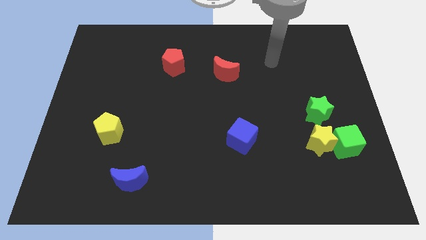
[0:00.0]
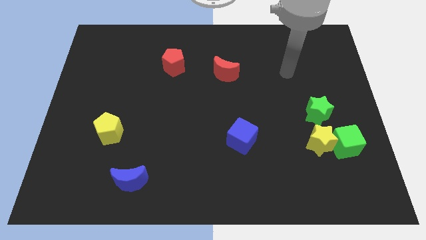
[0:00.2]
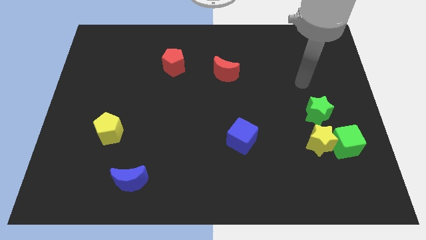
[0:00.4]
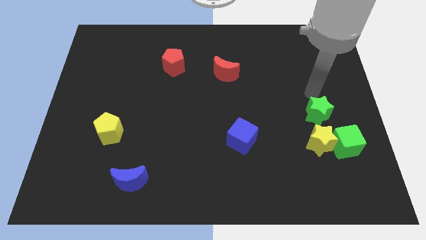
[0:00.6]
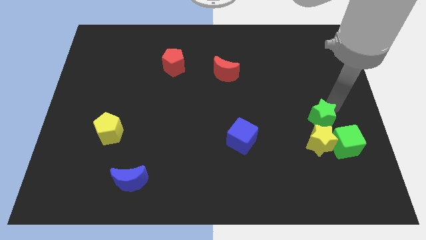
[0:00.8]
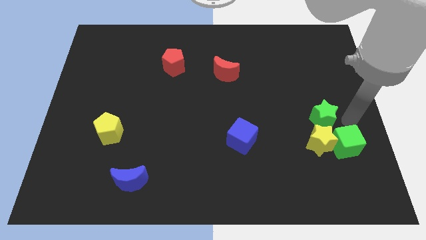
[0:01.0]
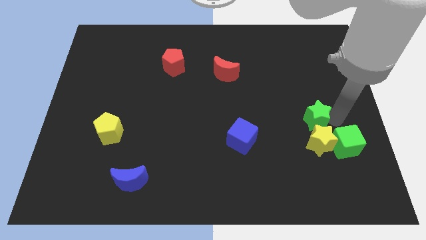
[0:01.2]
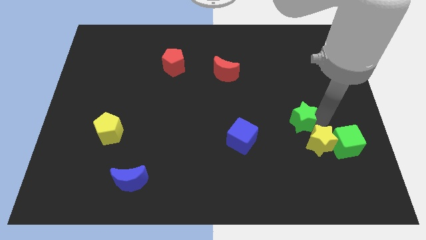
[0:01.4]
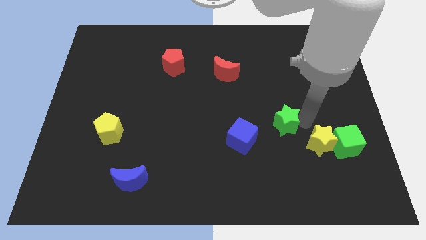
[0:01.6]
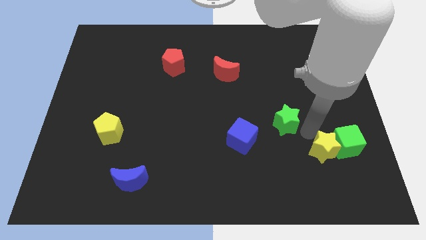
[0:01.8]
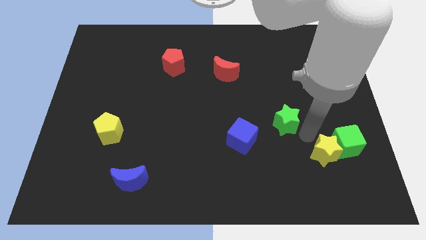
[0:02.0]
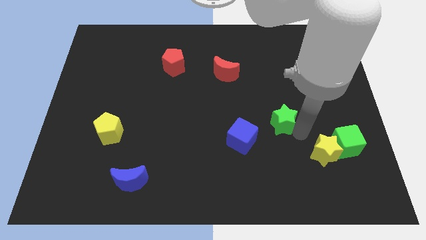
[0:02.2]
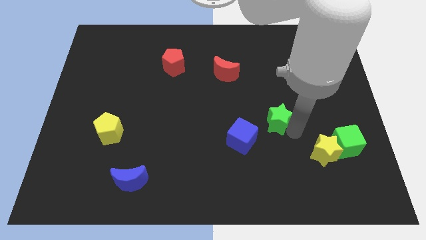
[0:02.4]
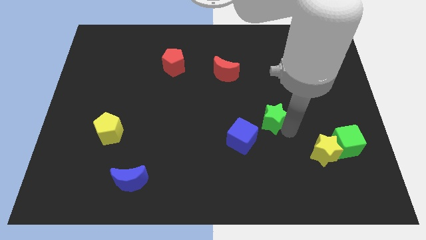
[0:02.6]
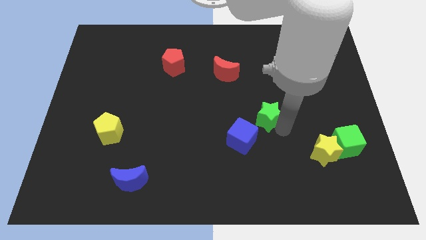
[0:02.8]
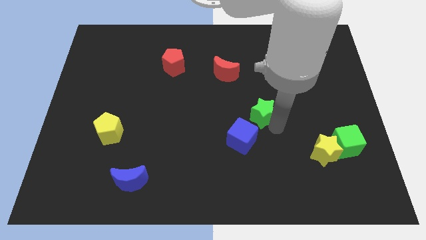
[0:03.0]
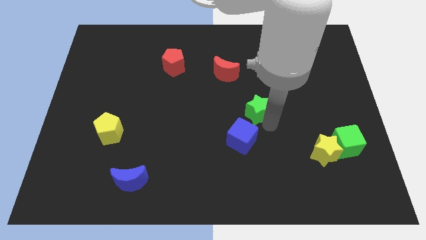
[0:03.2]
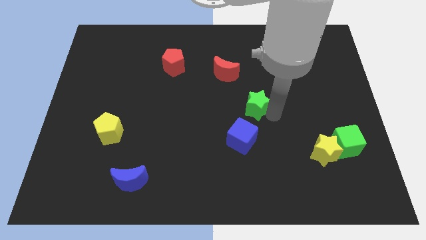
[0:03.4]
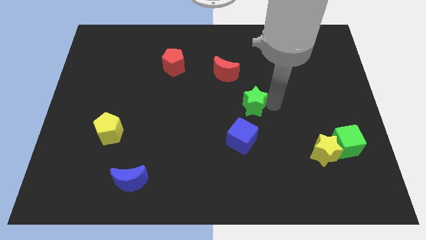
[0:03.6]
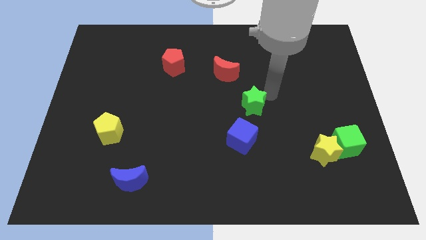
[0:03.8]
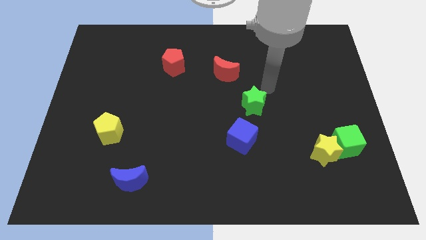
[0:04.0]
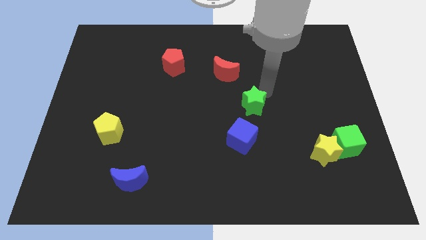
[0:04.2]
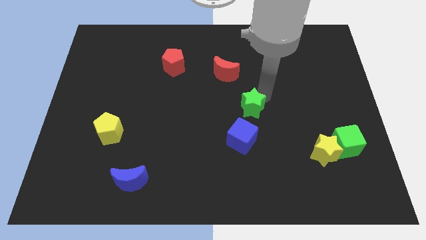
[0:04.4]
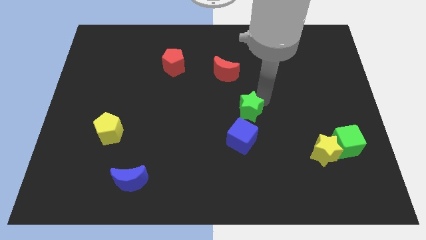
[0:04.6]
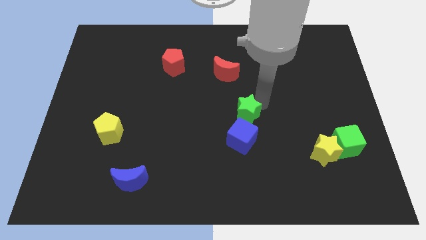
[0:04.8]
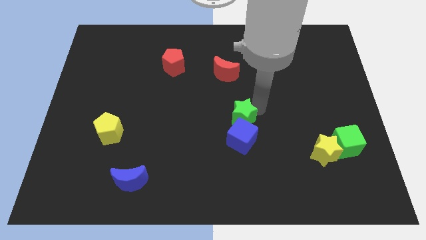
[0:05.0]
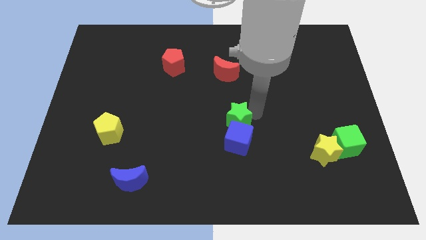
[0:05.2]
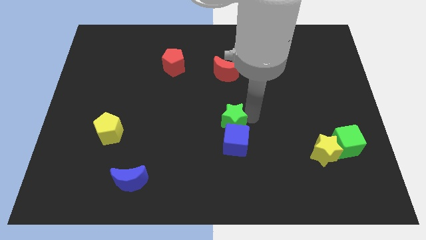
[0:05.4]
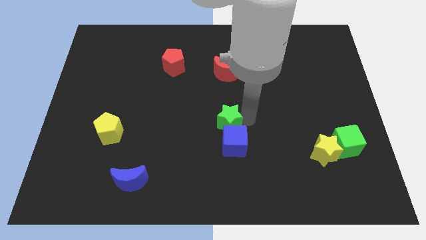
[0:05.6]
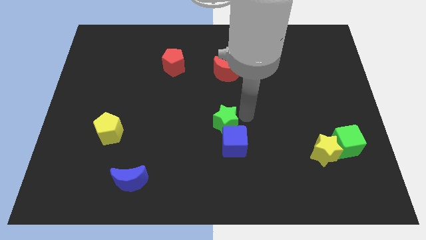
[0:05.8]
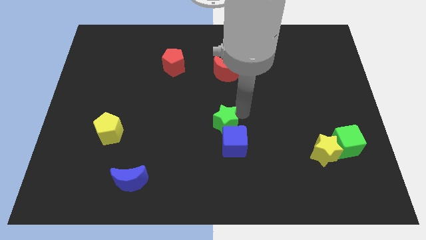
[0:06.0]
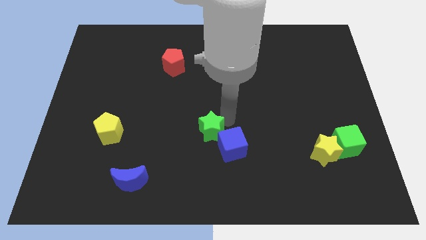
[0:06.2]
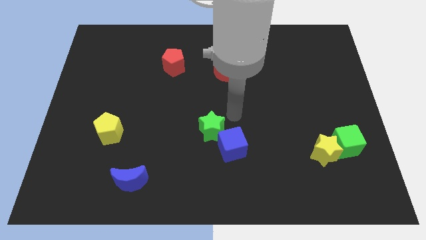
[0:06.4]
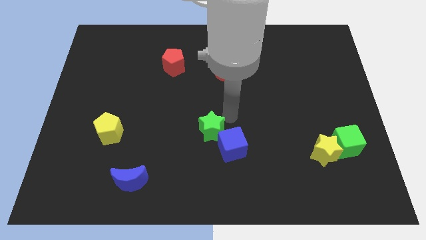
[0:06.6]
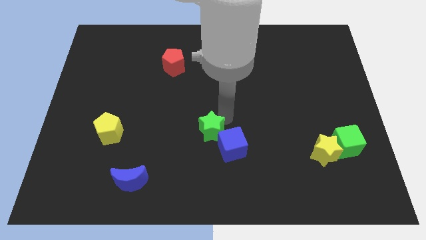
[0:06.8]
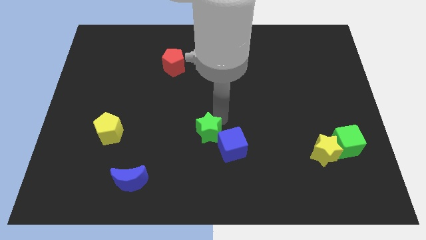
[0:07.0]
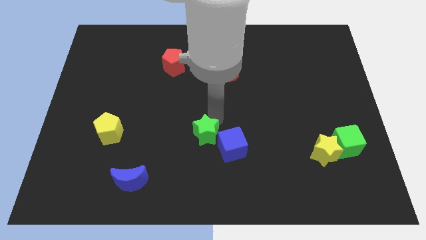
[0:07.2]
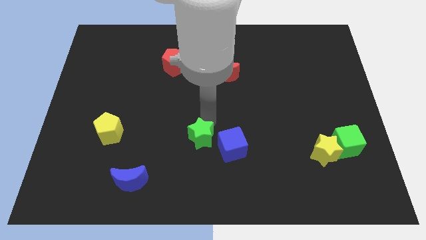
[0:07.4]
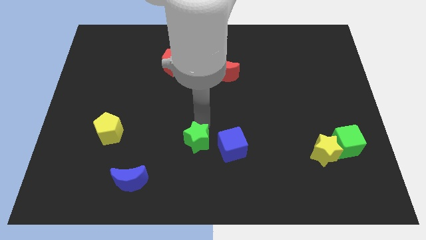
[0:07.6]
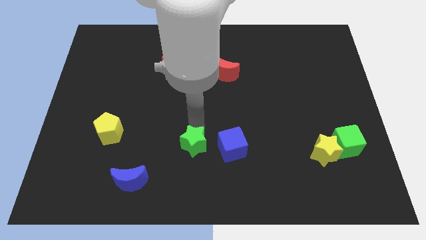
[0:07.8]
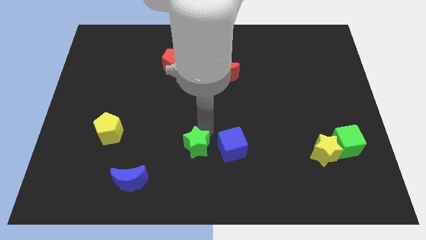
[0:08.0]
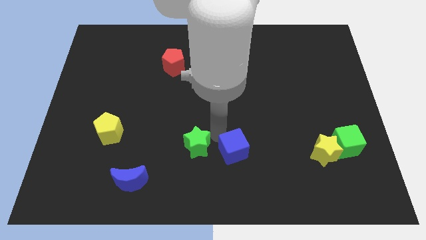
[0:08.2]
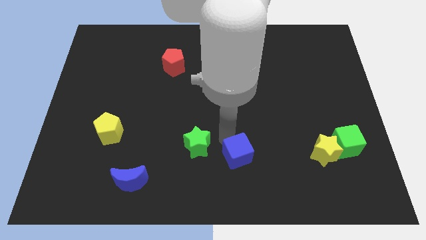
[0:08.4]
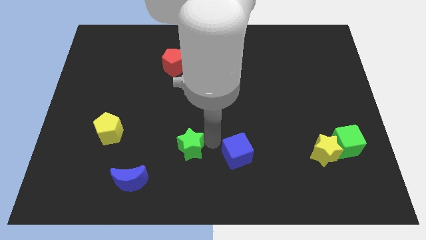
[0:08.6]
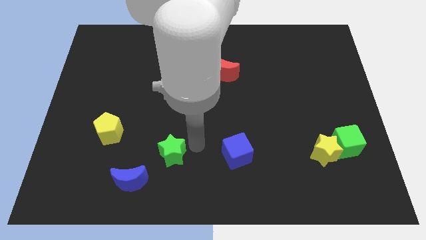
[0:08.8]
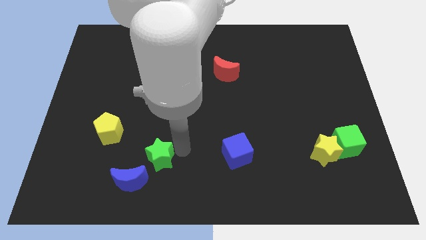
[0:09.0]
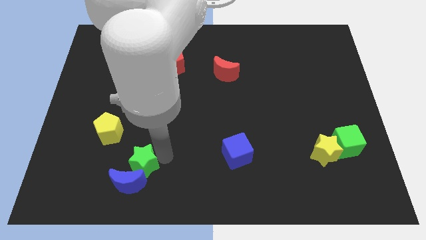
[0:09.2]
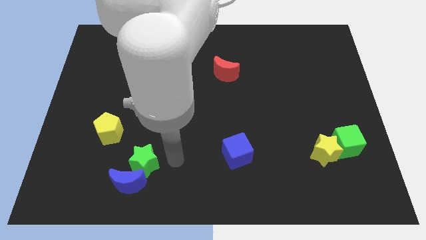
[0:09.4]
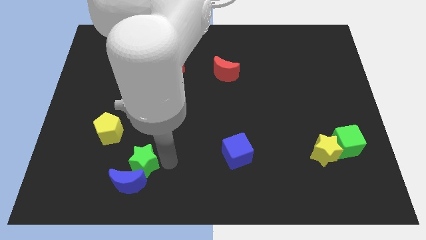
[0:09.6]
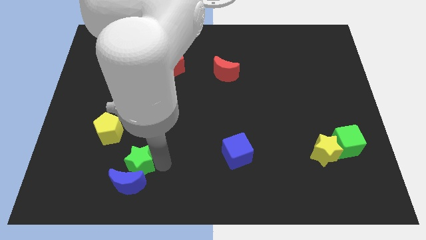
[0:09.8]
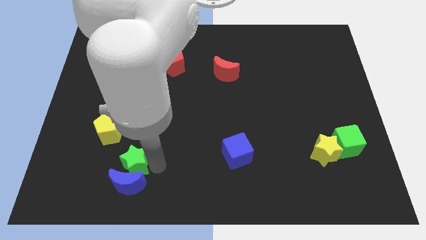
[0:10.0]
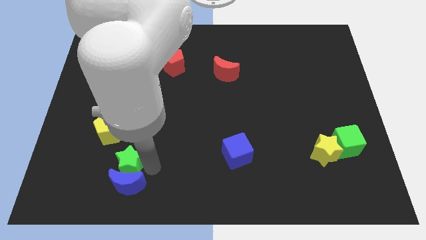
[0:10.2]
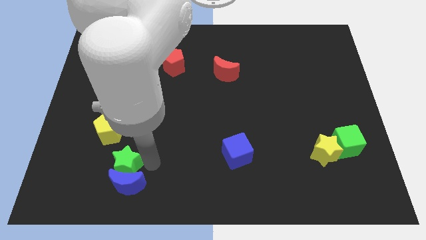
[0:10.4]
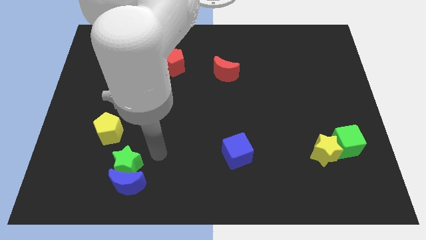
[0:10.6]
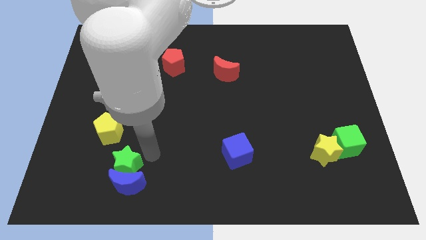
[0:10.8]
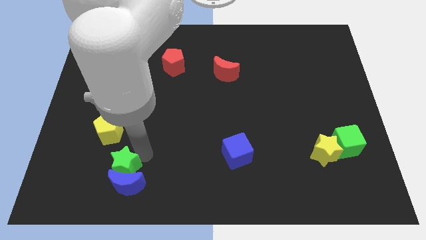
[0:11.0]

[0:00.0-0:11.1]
slide the green star below the yellow pentagon
